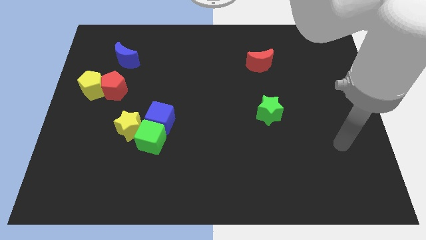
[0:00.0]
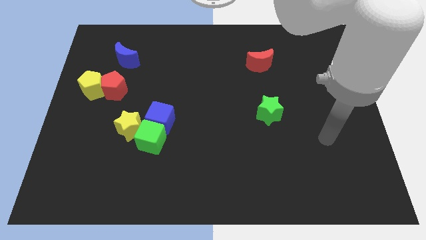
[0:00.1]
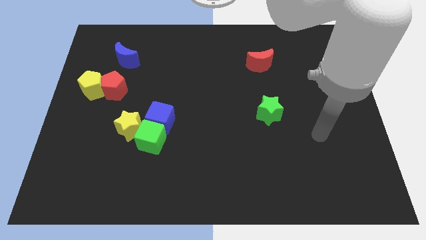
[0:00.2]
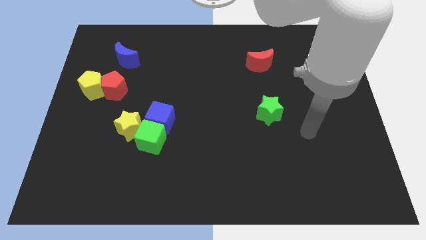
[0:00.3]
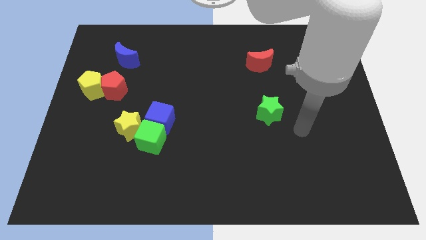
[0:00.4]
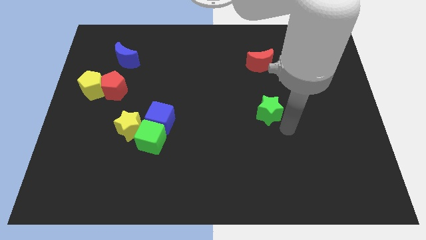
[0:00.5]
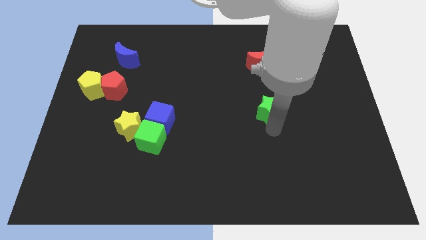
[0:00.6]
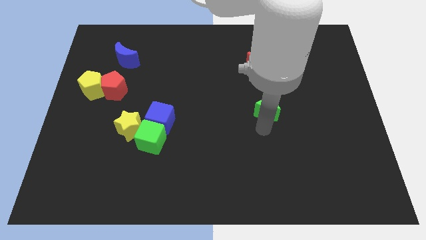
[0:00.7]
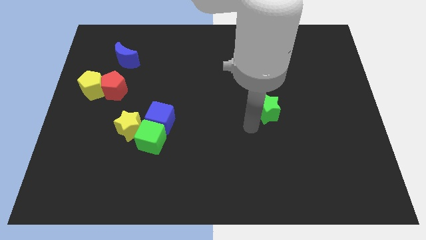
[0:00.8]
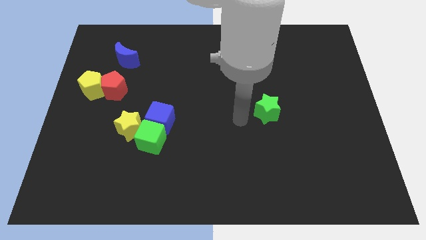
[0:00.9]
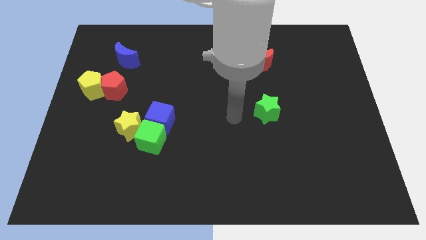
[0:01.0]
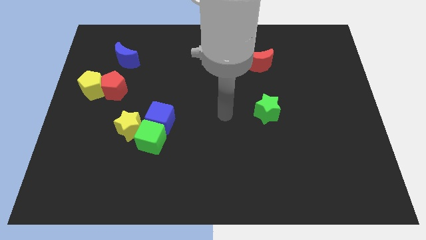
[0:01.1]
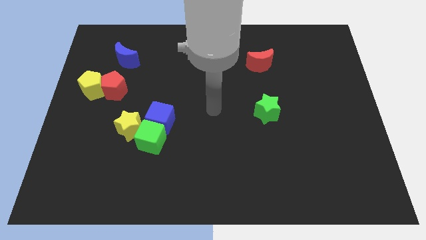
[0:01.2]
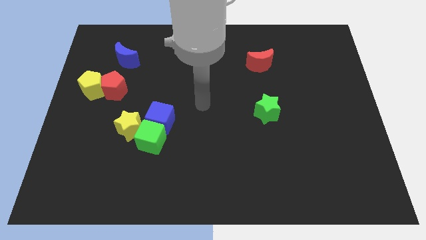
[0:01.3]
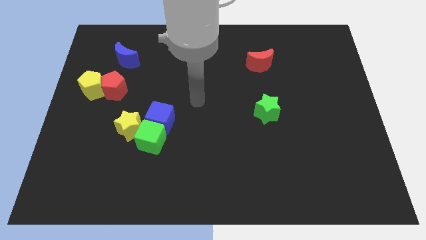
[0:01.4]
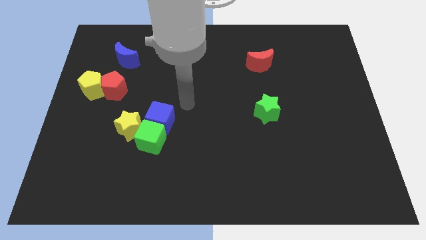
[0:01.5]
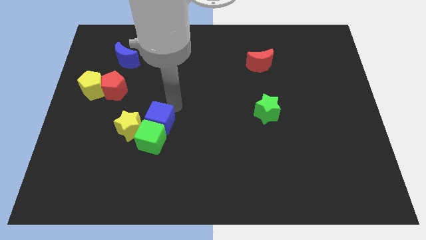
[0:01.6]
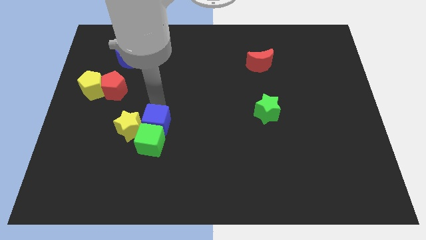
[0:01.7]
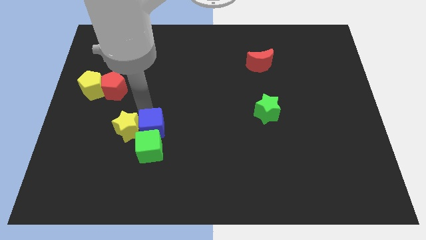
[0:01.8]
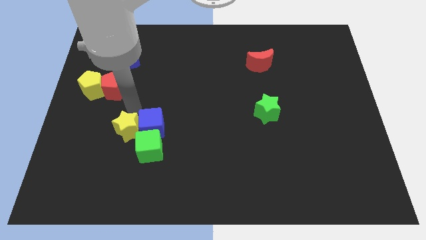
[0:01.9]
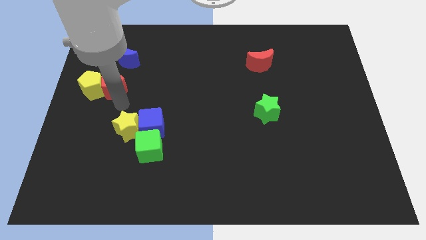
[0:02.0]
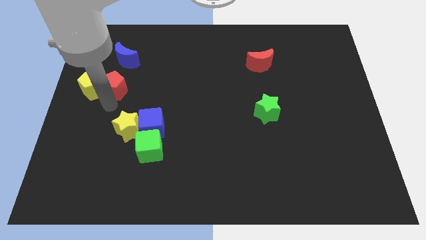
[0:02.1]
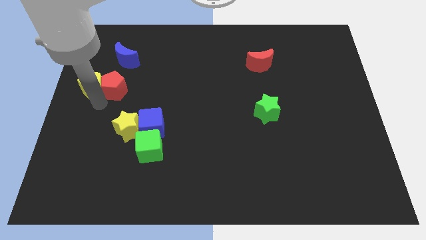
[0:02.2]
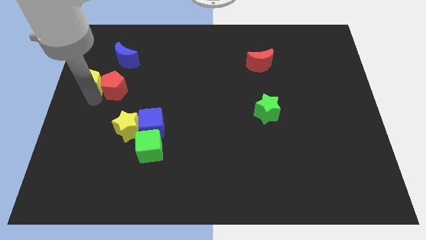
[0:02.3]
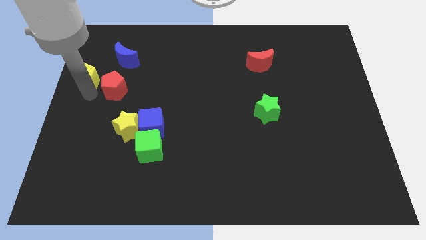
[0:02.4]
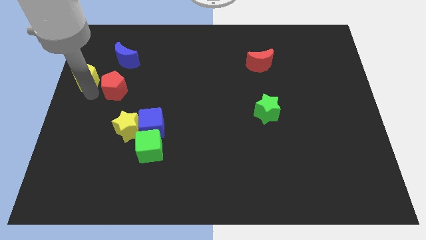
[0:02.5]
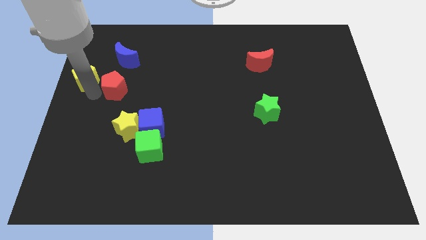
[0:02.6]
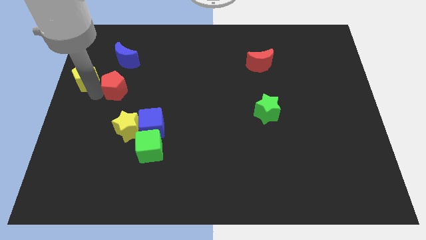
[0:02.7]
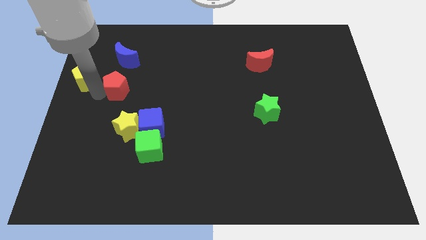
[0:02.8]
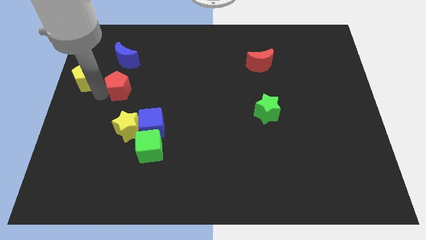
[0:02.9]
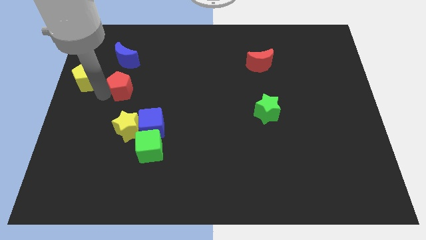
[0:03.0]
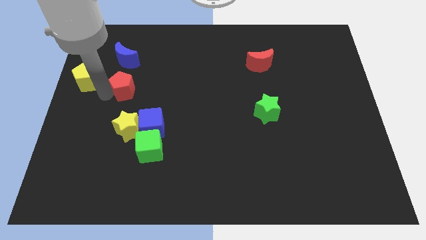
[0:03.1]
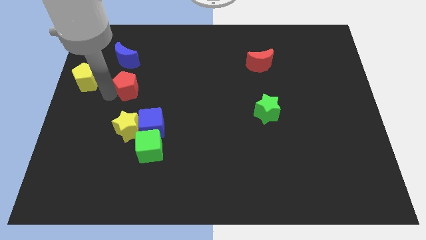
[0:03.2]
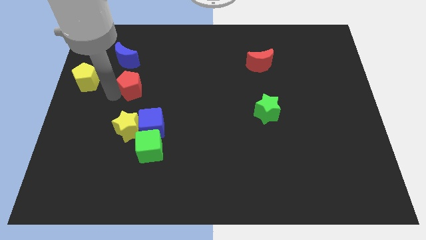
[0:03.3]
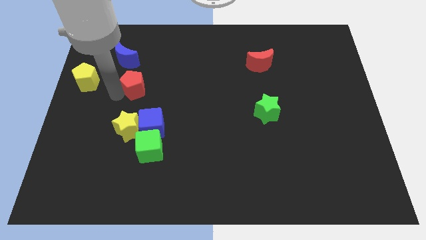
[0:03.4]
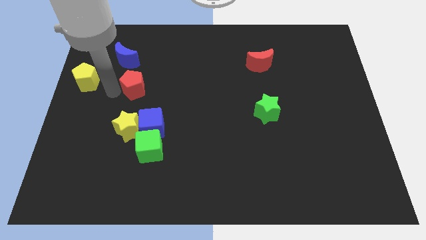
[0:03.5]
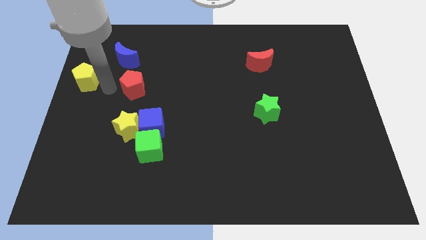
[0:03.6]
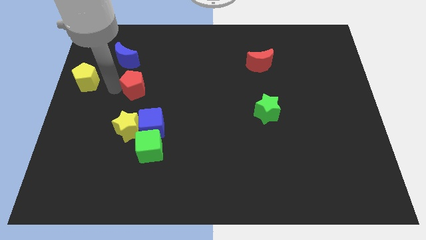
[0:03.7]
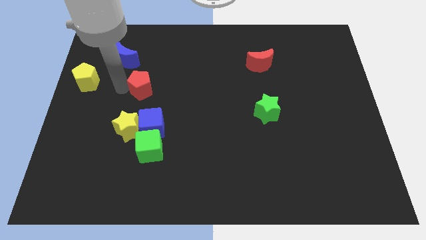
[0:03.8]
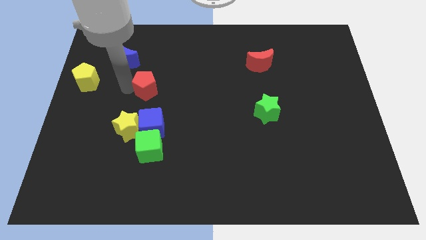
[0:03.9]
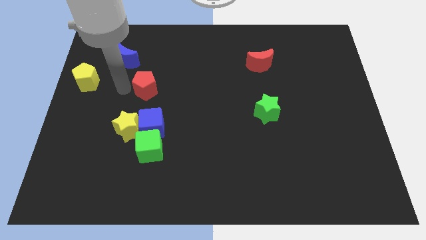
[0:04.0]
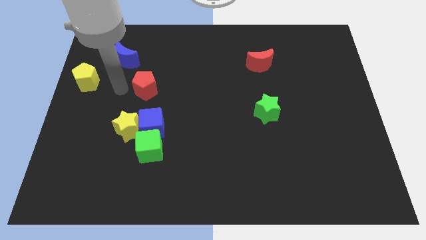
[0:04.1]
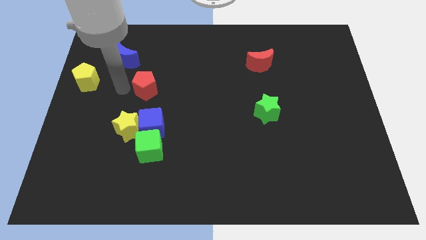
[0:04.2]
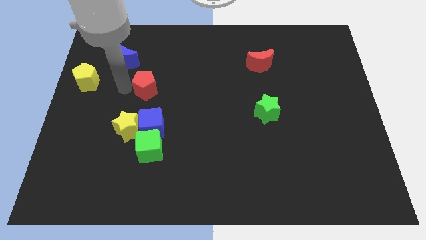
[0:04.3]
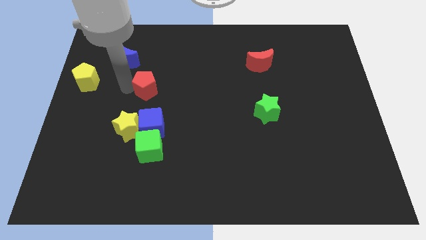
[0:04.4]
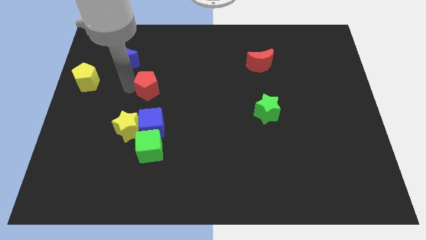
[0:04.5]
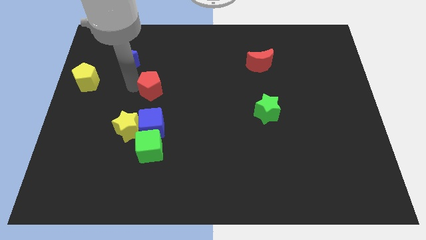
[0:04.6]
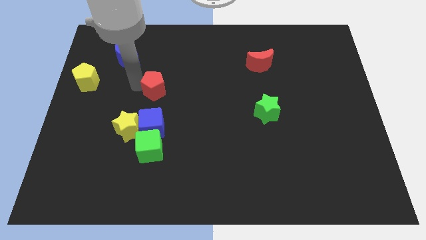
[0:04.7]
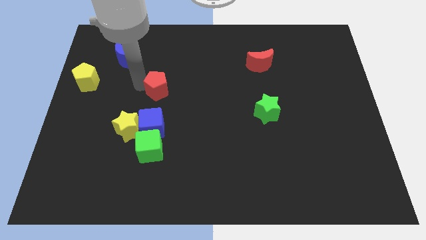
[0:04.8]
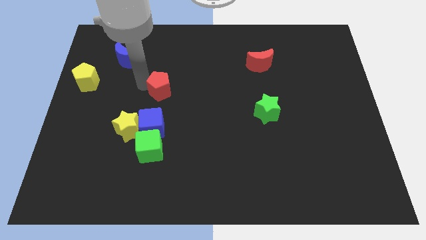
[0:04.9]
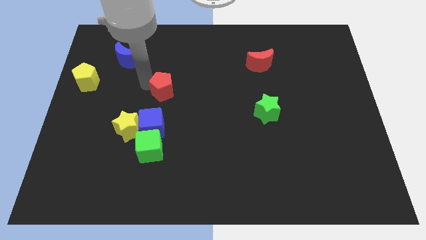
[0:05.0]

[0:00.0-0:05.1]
slide the red pentagon to the center of the board
